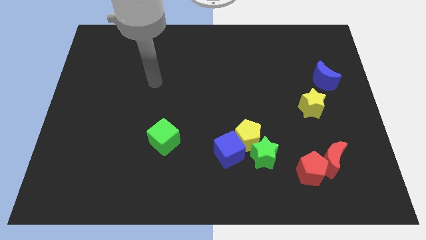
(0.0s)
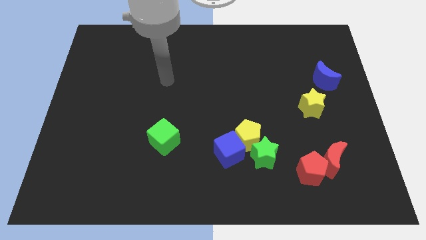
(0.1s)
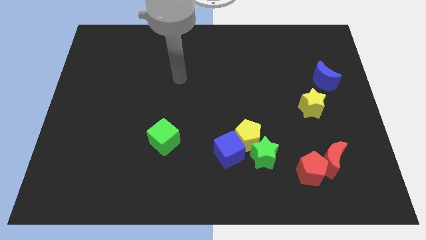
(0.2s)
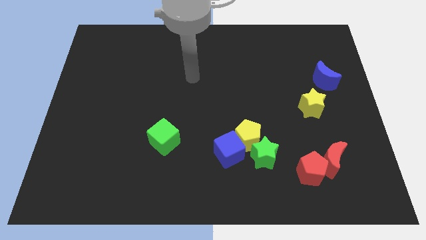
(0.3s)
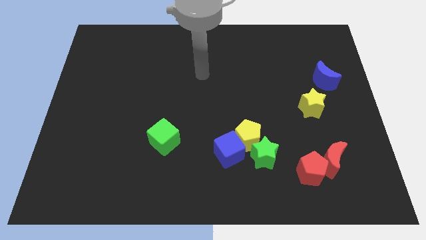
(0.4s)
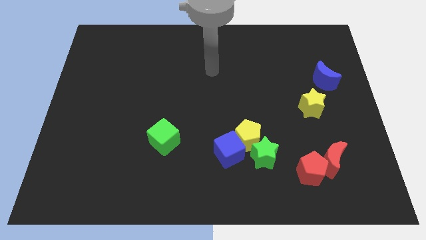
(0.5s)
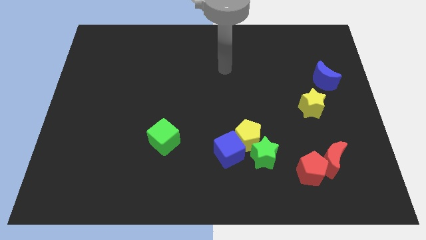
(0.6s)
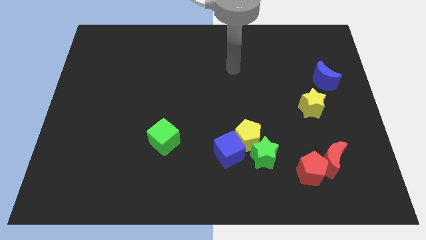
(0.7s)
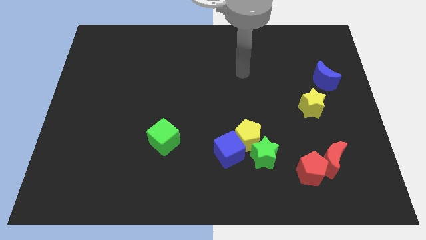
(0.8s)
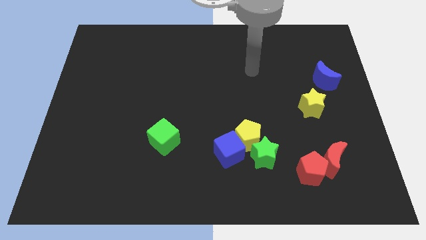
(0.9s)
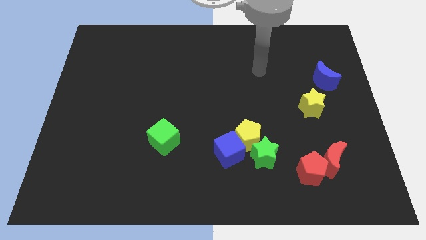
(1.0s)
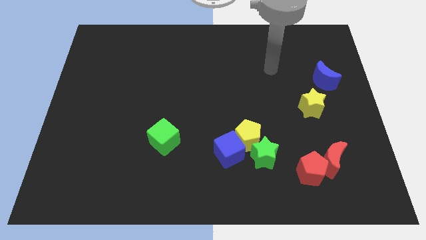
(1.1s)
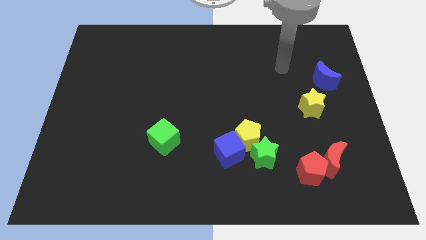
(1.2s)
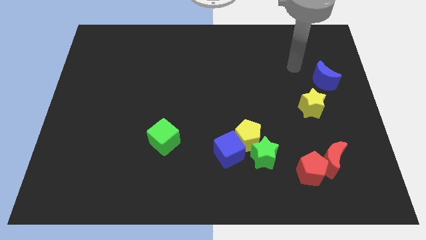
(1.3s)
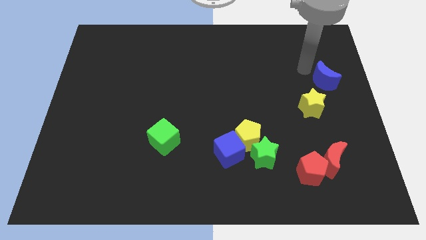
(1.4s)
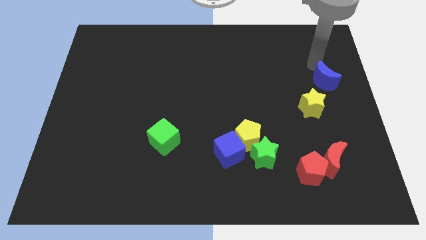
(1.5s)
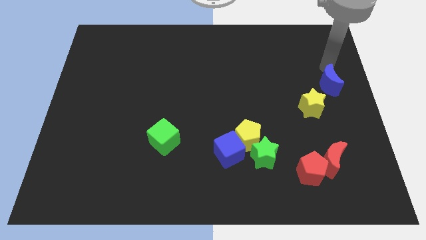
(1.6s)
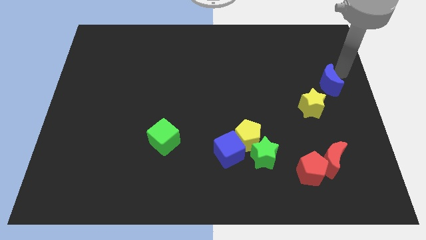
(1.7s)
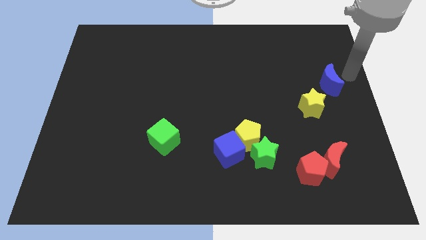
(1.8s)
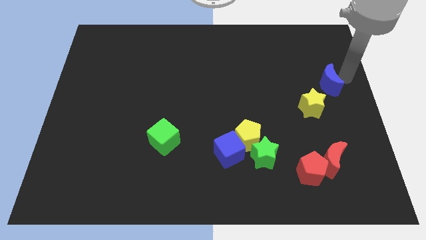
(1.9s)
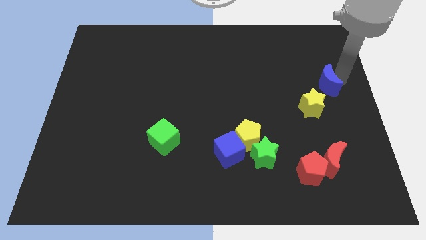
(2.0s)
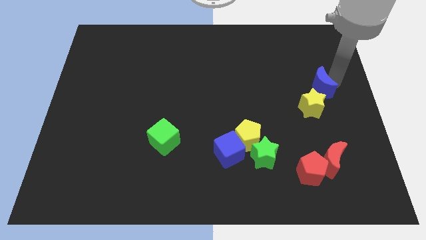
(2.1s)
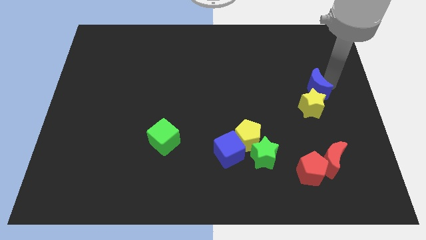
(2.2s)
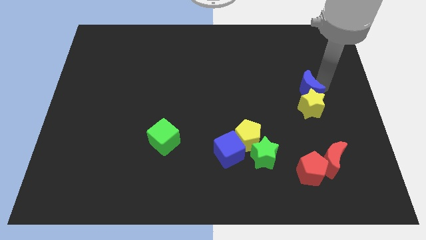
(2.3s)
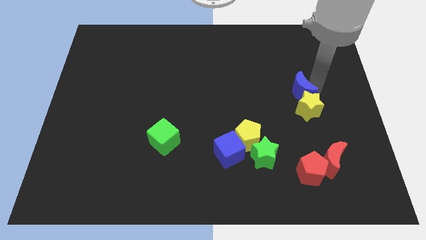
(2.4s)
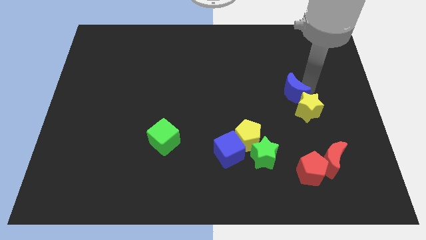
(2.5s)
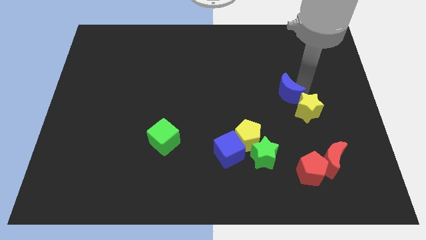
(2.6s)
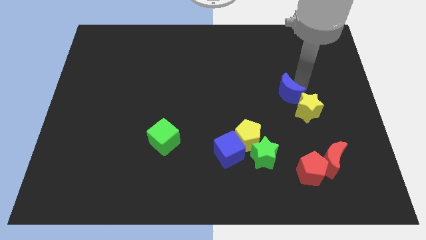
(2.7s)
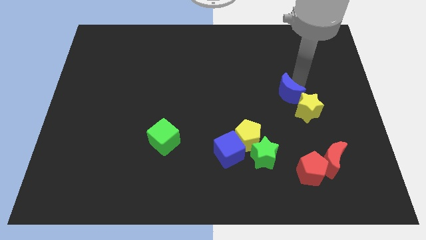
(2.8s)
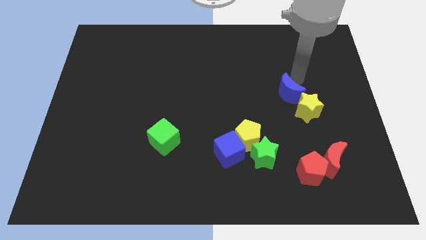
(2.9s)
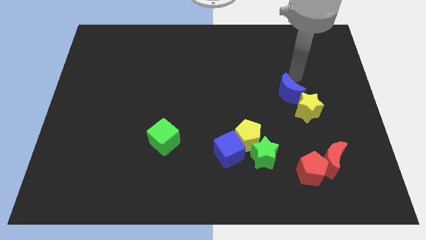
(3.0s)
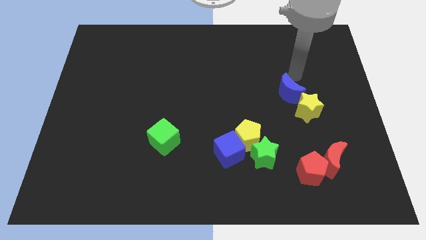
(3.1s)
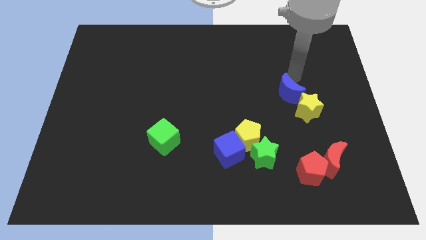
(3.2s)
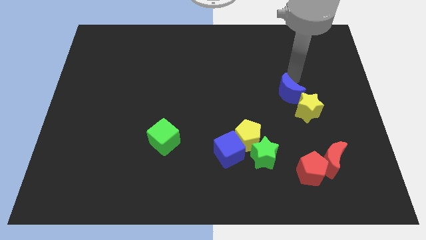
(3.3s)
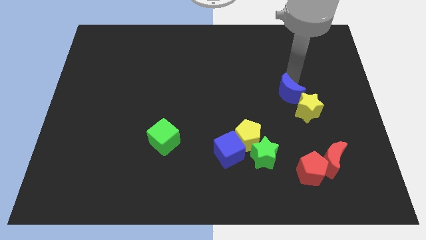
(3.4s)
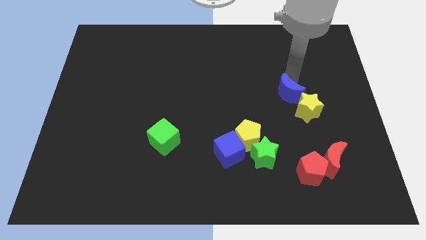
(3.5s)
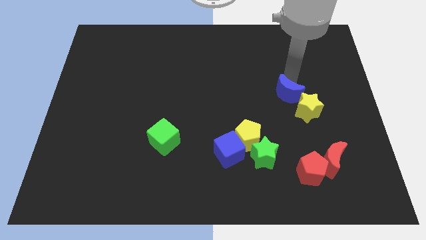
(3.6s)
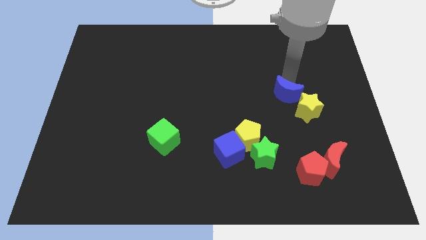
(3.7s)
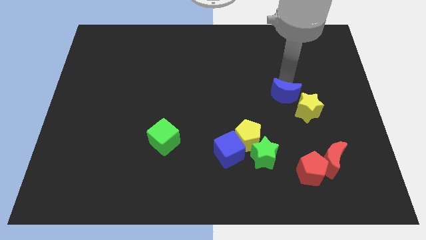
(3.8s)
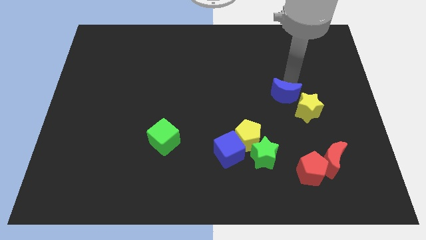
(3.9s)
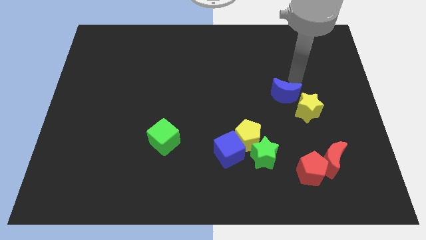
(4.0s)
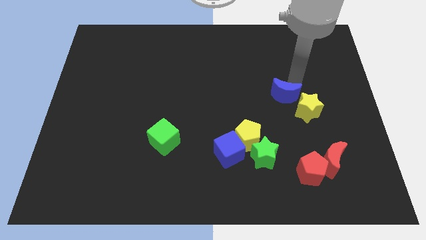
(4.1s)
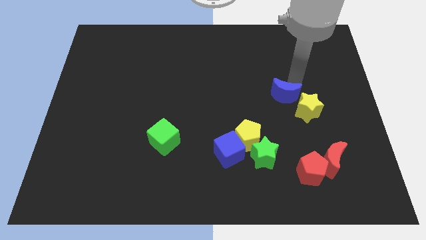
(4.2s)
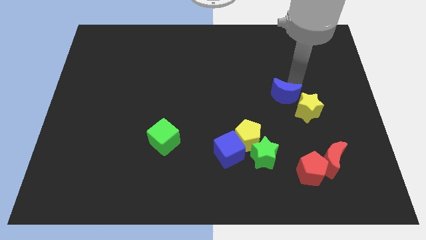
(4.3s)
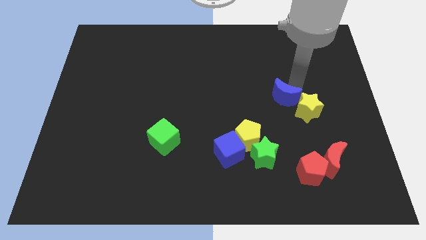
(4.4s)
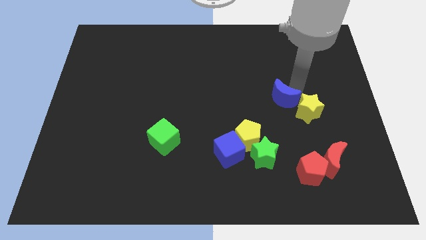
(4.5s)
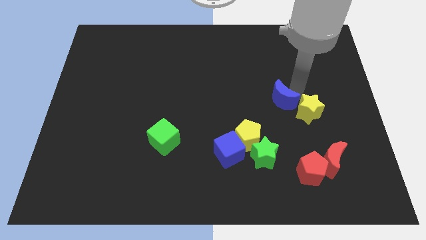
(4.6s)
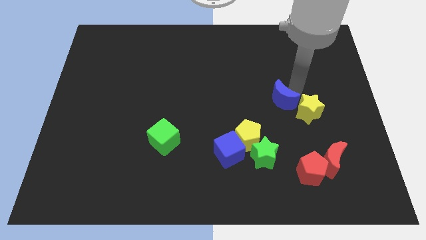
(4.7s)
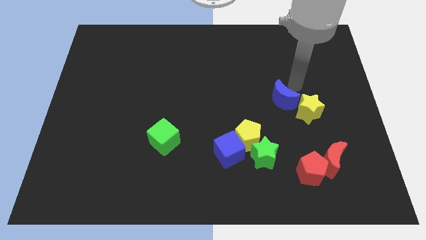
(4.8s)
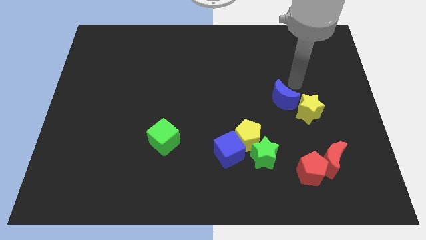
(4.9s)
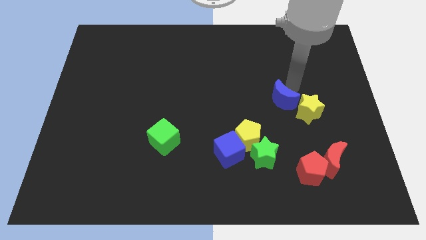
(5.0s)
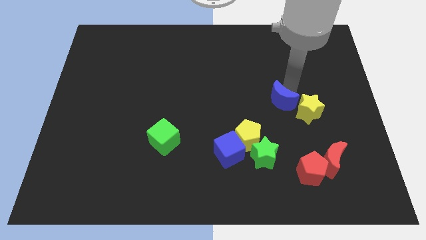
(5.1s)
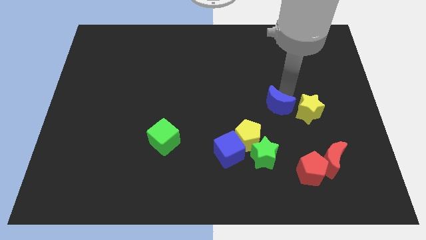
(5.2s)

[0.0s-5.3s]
move the blue moon to the top right side of the yellow pentagon

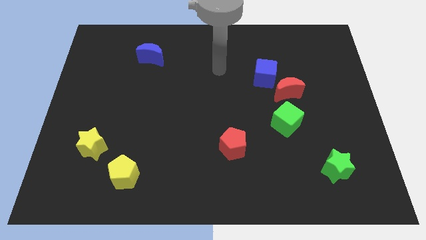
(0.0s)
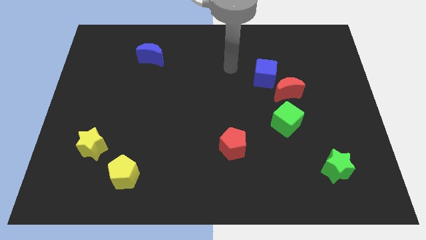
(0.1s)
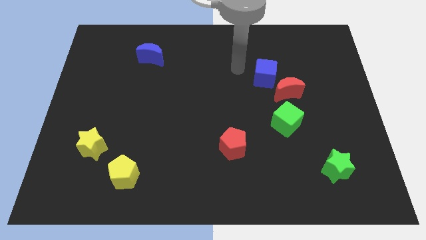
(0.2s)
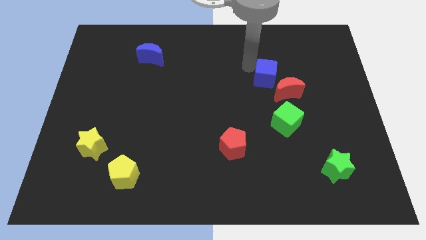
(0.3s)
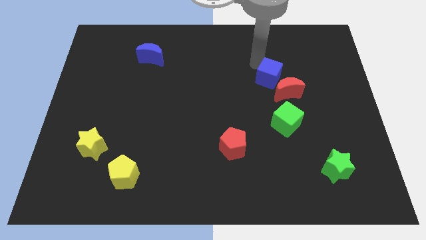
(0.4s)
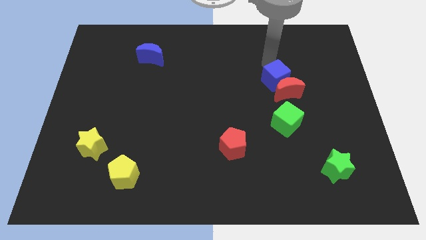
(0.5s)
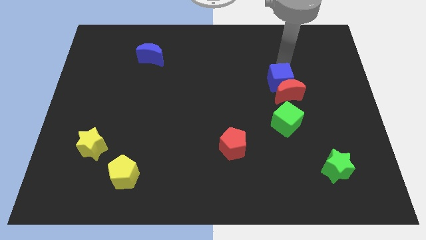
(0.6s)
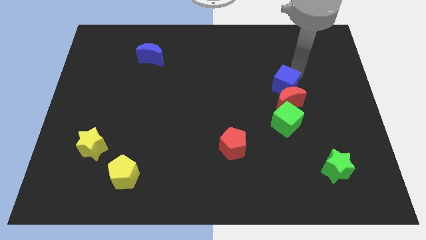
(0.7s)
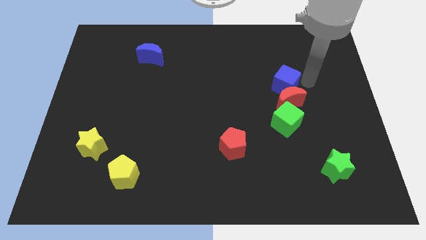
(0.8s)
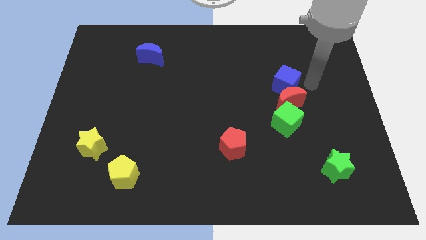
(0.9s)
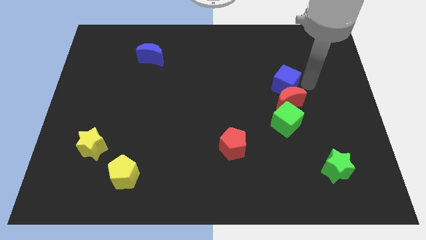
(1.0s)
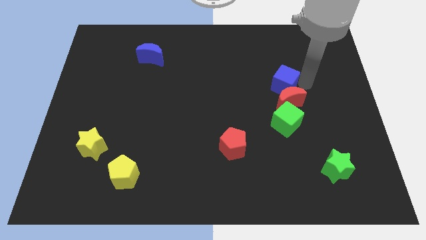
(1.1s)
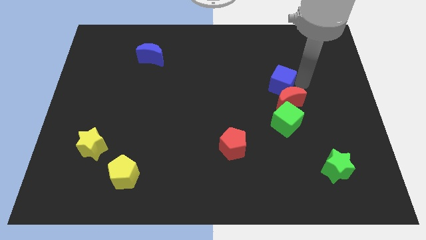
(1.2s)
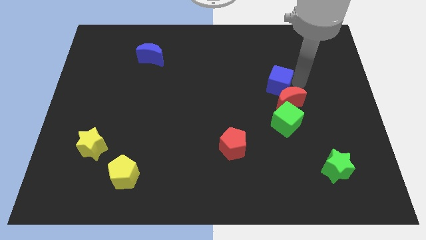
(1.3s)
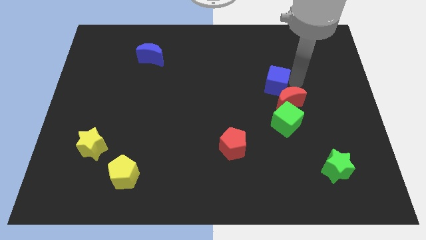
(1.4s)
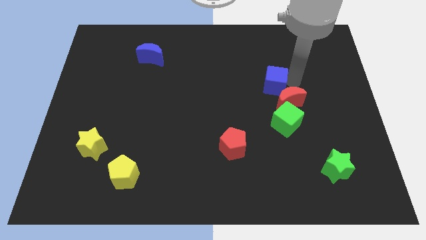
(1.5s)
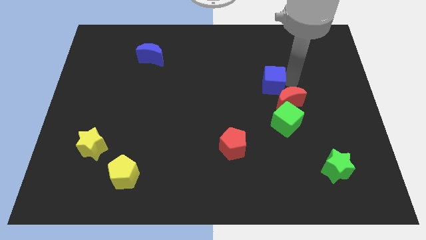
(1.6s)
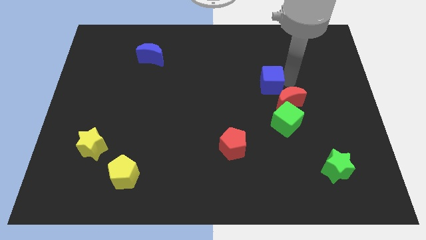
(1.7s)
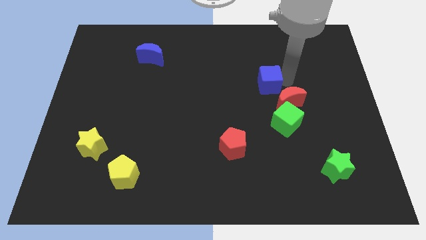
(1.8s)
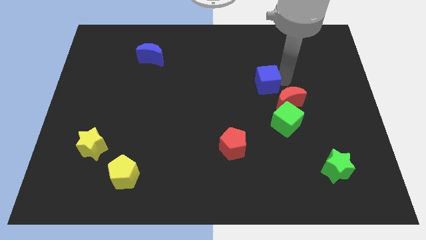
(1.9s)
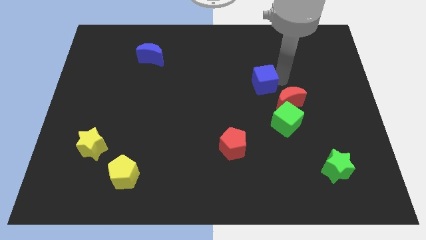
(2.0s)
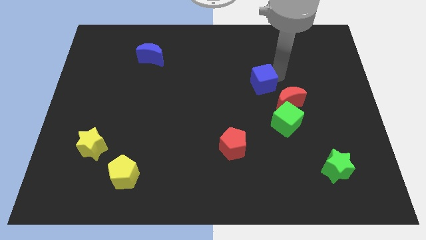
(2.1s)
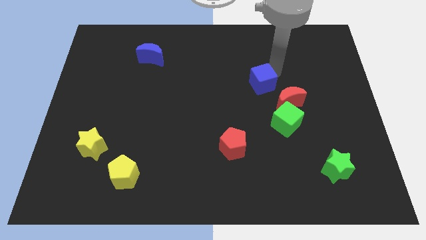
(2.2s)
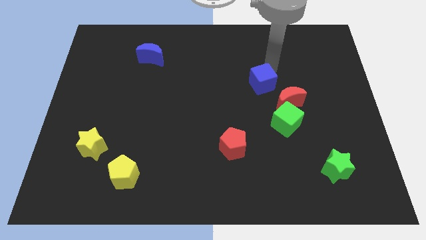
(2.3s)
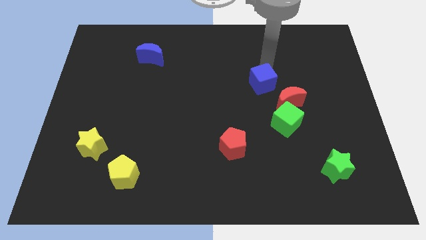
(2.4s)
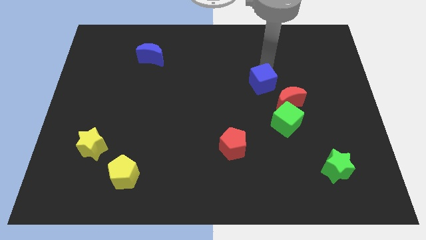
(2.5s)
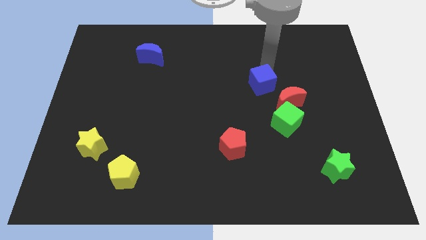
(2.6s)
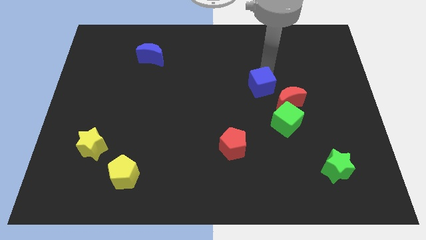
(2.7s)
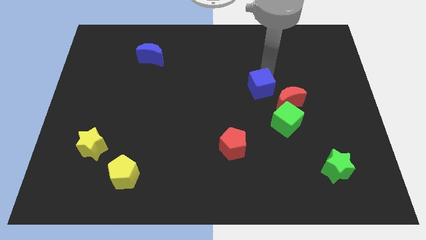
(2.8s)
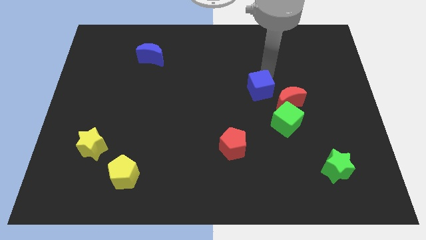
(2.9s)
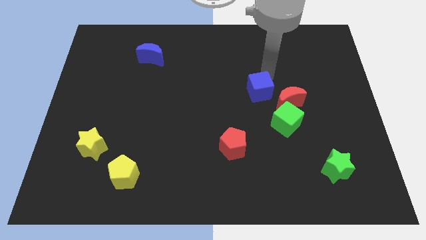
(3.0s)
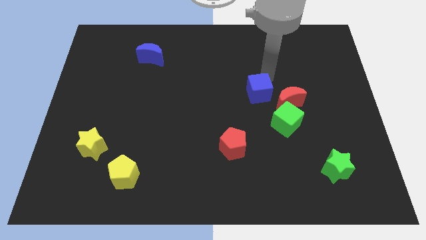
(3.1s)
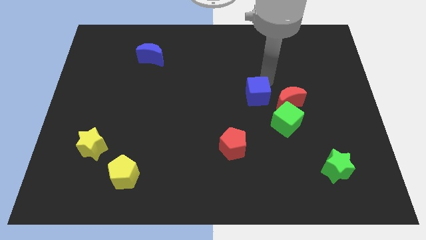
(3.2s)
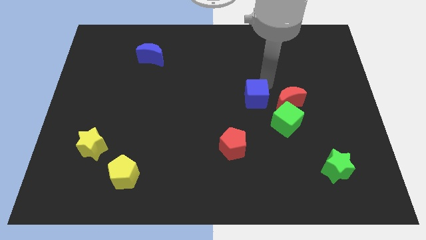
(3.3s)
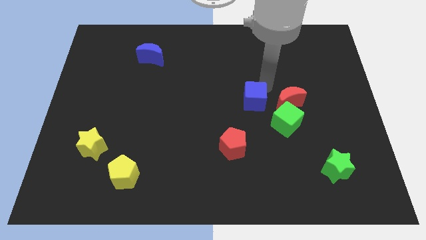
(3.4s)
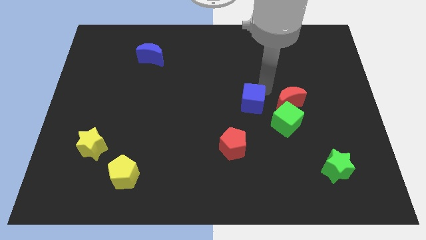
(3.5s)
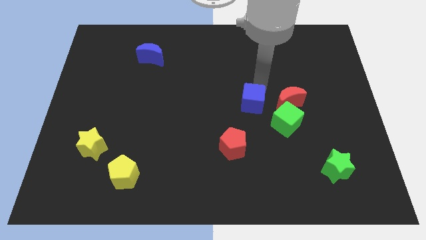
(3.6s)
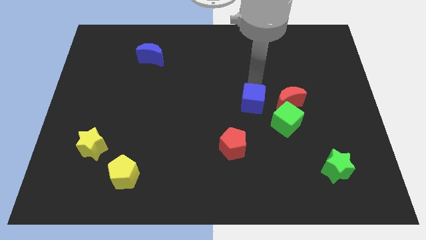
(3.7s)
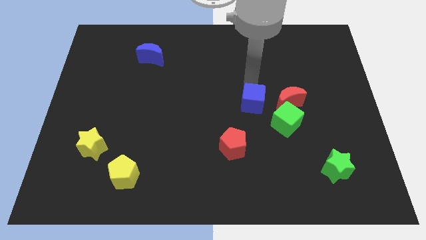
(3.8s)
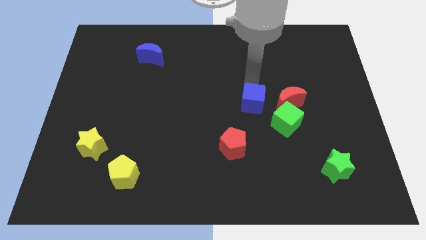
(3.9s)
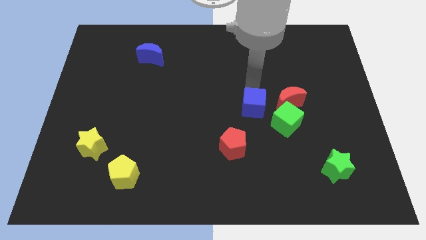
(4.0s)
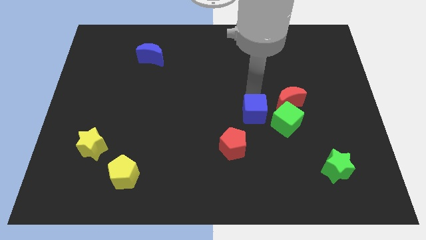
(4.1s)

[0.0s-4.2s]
put the blue cube diagonally up and to the right of the red pentagon
